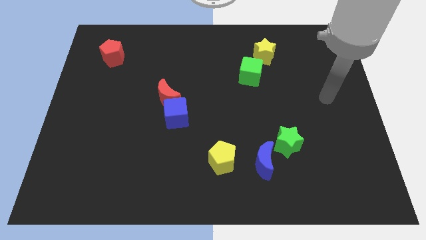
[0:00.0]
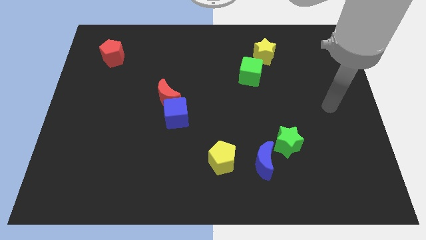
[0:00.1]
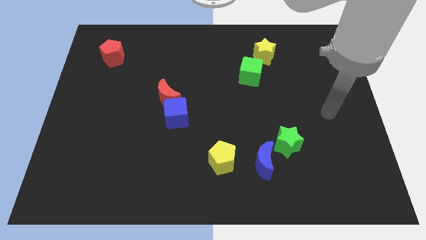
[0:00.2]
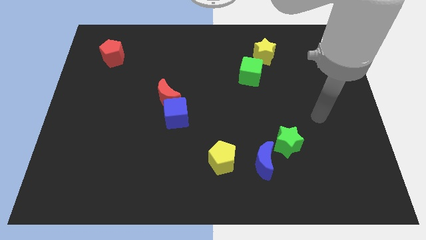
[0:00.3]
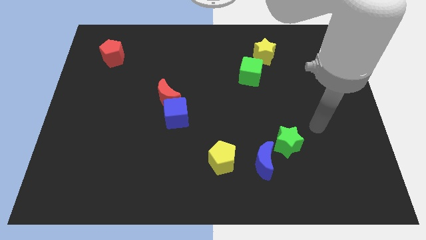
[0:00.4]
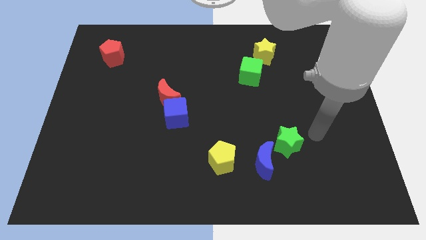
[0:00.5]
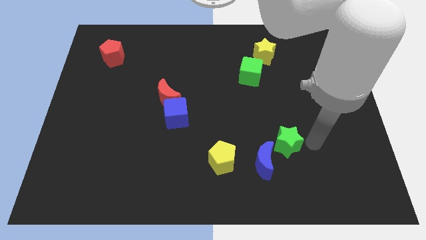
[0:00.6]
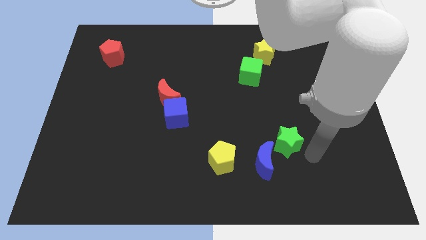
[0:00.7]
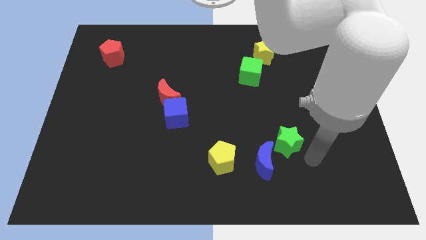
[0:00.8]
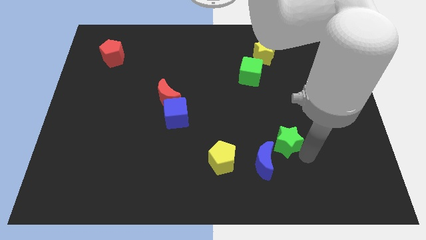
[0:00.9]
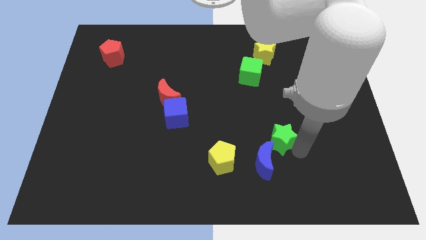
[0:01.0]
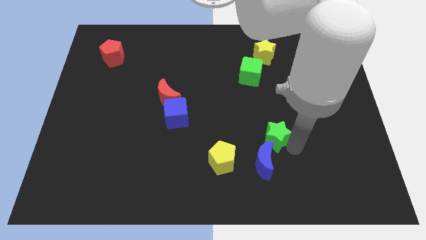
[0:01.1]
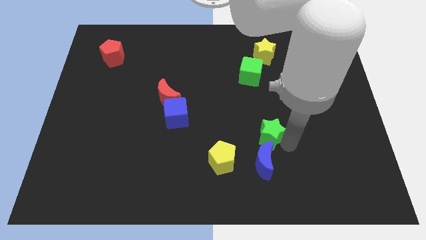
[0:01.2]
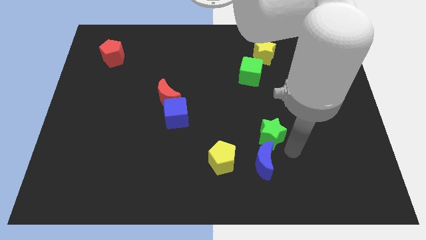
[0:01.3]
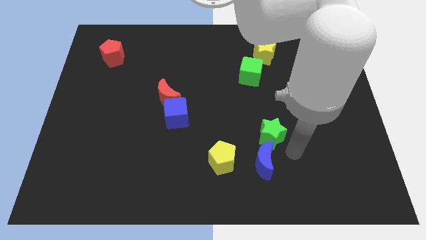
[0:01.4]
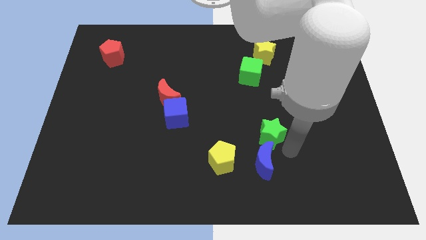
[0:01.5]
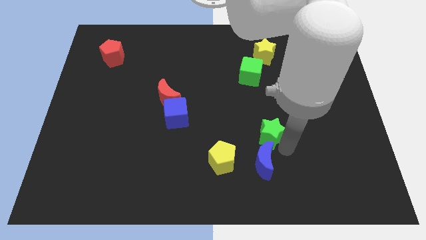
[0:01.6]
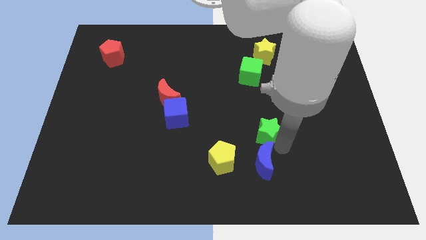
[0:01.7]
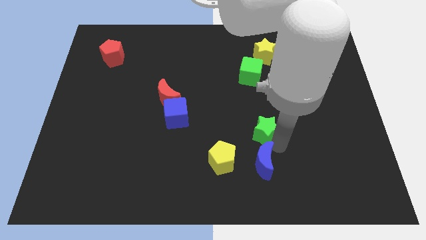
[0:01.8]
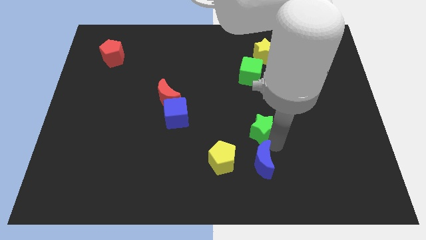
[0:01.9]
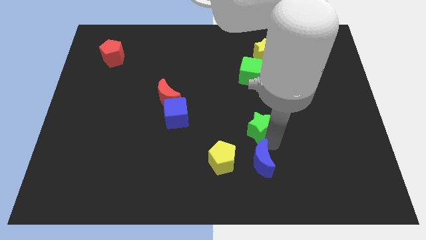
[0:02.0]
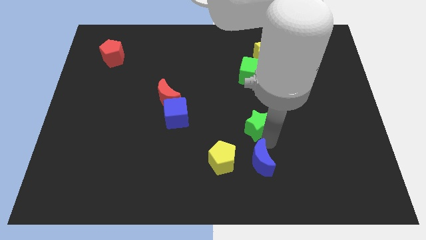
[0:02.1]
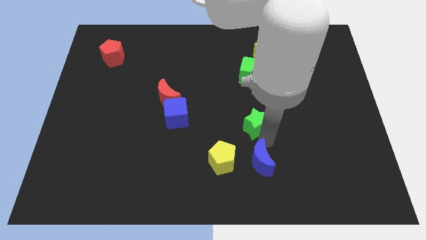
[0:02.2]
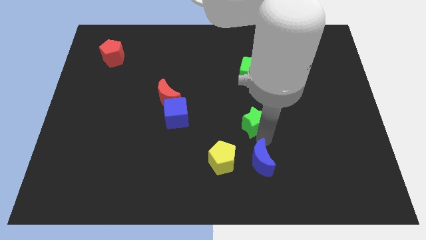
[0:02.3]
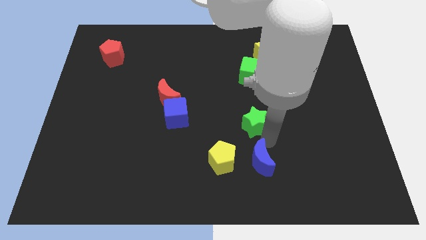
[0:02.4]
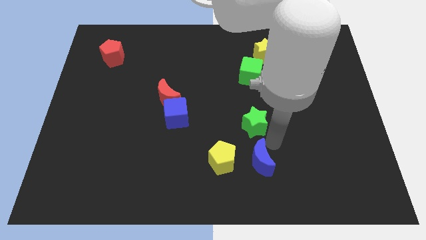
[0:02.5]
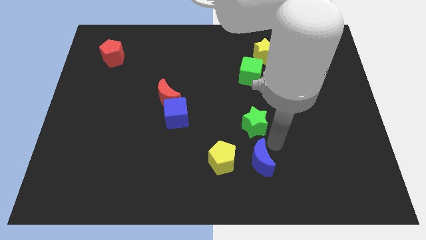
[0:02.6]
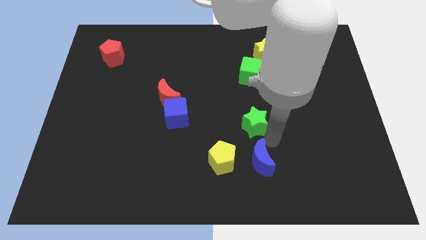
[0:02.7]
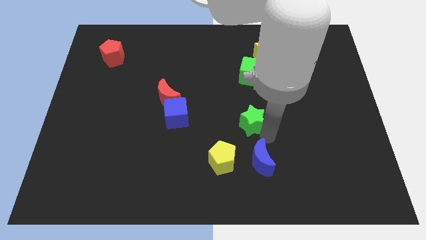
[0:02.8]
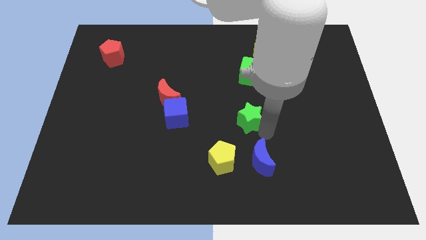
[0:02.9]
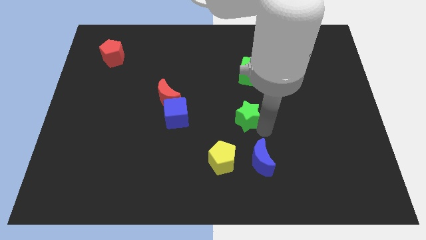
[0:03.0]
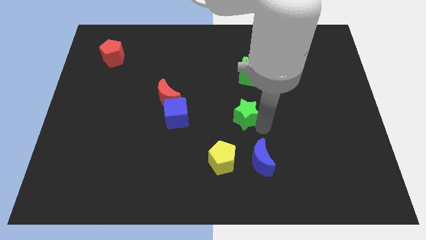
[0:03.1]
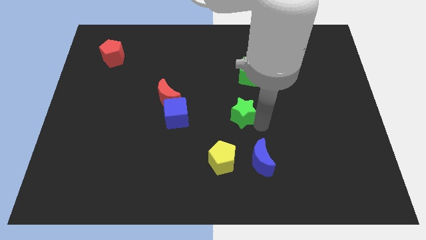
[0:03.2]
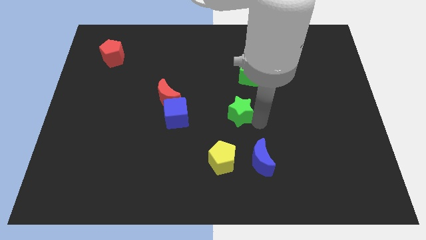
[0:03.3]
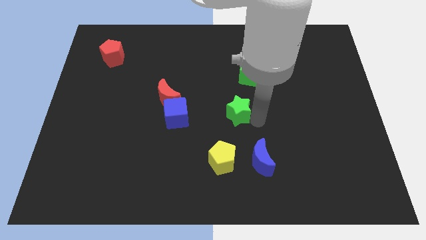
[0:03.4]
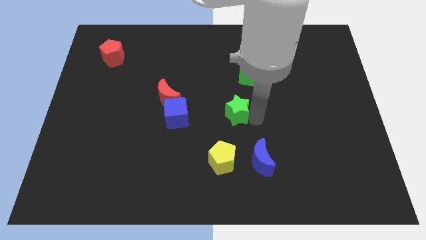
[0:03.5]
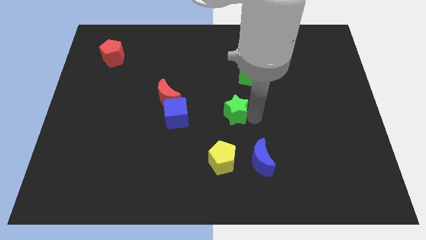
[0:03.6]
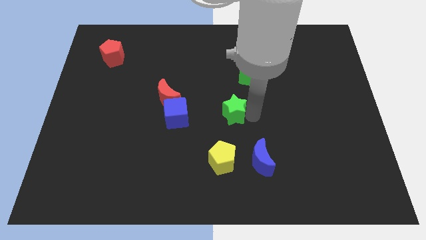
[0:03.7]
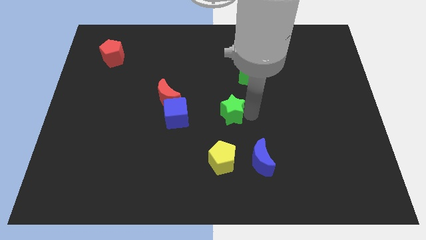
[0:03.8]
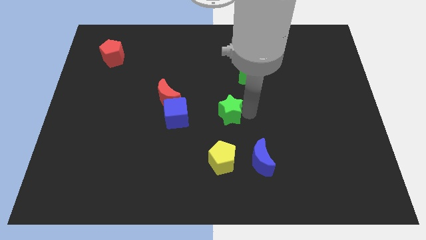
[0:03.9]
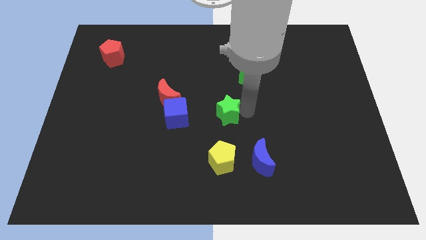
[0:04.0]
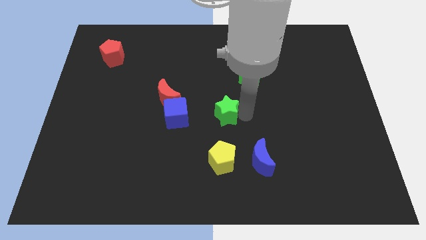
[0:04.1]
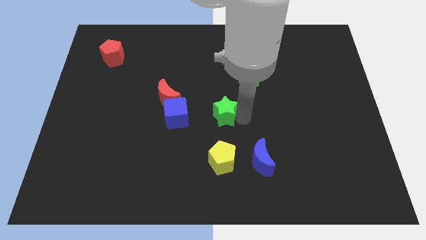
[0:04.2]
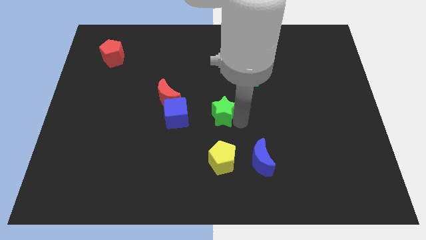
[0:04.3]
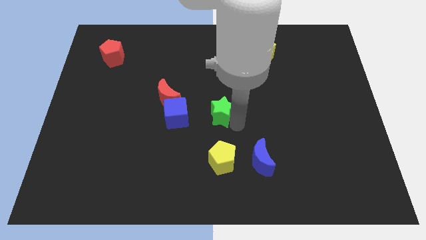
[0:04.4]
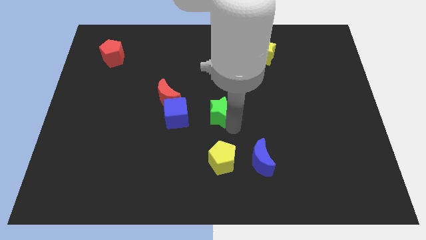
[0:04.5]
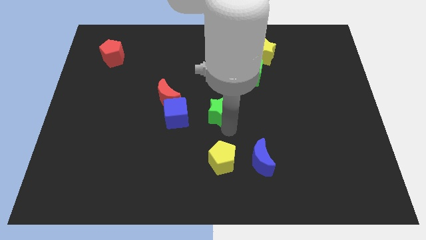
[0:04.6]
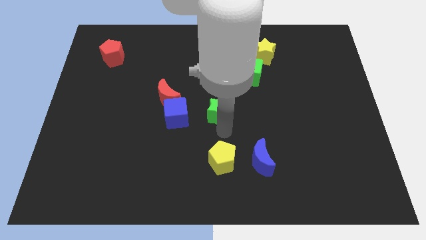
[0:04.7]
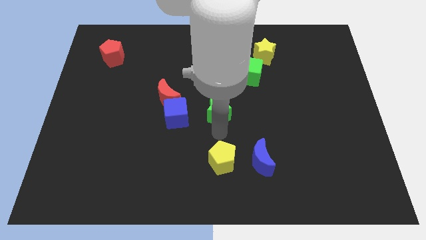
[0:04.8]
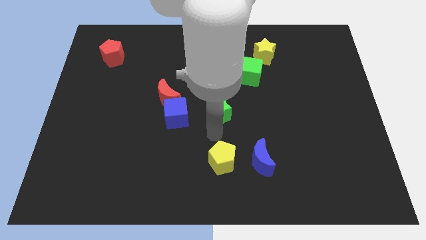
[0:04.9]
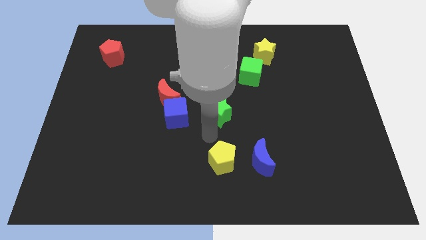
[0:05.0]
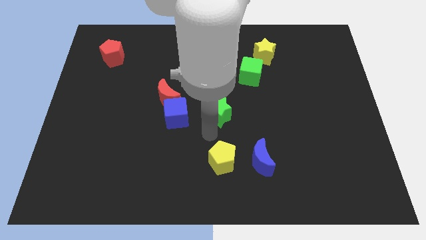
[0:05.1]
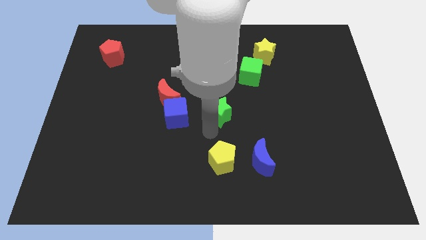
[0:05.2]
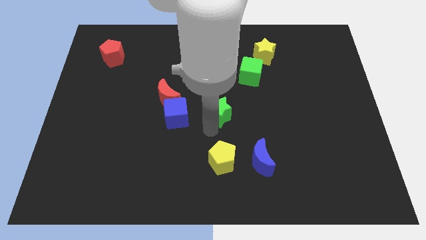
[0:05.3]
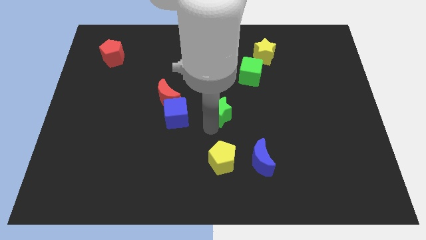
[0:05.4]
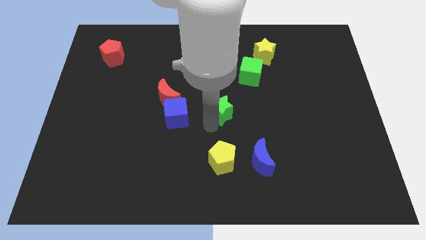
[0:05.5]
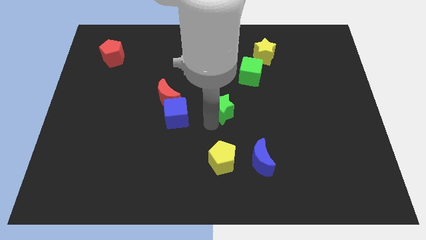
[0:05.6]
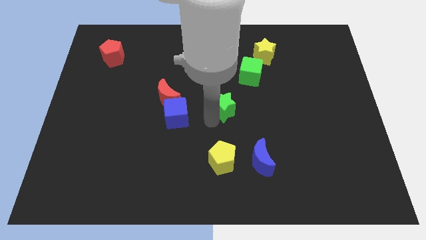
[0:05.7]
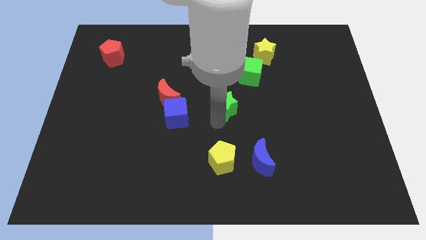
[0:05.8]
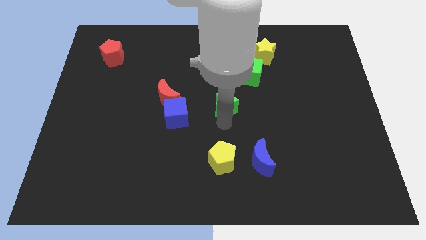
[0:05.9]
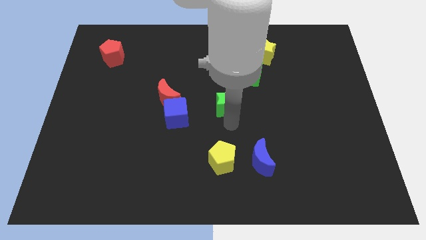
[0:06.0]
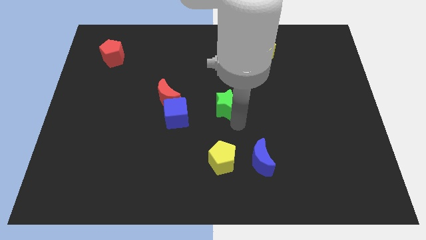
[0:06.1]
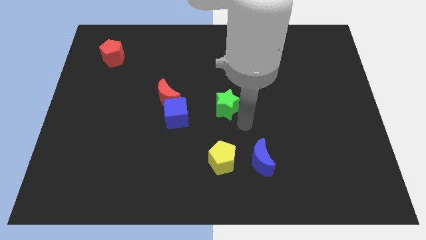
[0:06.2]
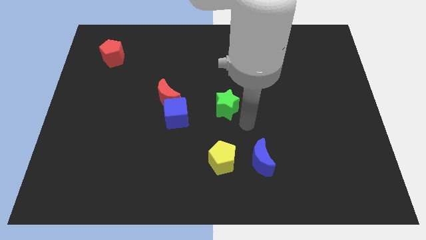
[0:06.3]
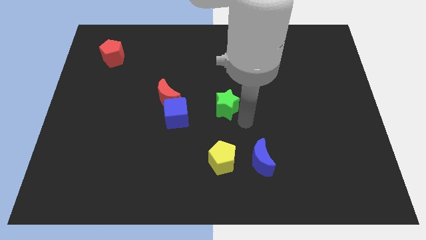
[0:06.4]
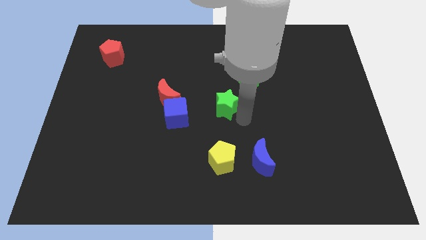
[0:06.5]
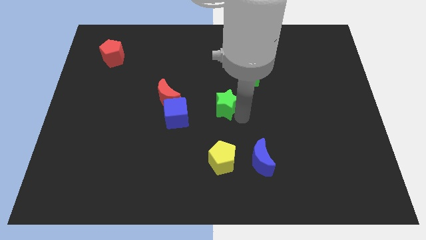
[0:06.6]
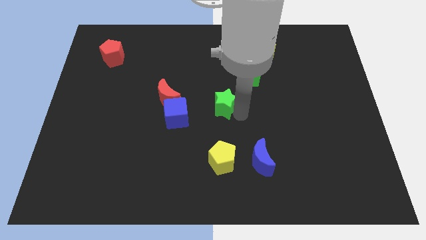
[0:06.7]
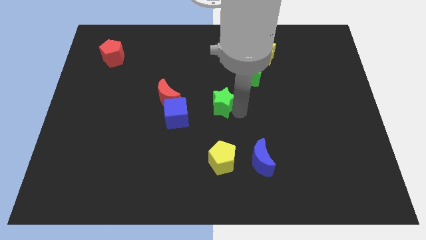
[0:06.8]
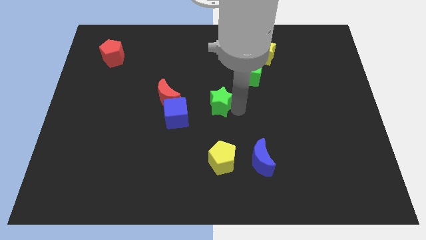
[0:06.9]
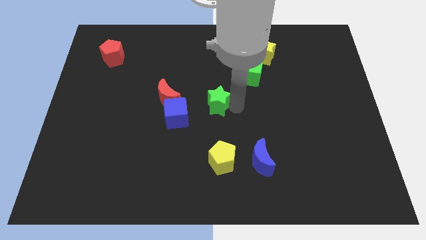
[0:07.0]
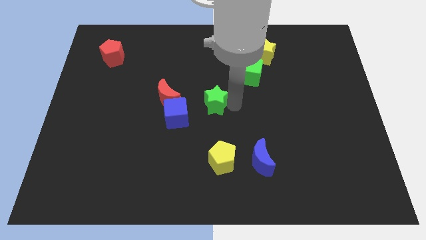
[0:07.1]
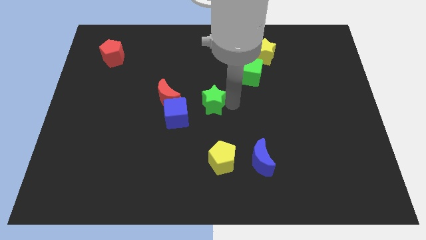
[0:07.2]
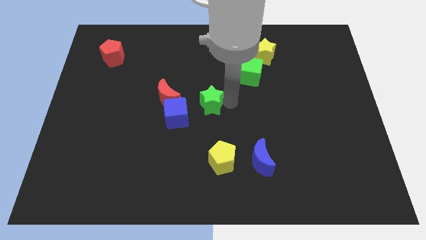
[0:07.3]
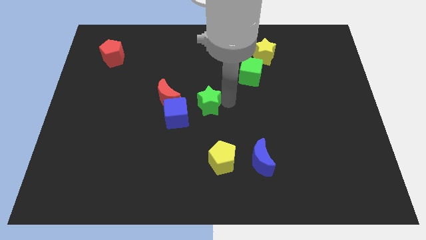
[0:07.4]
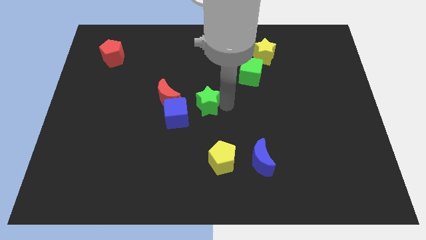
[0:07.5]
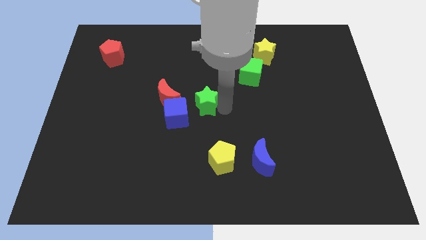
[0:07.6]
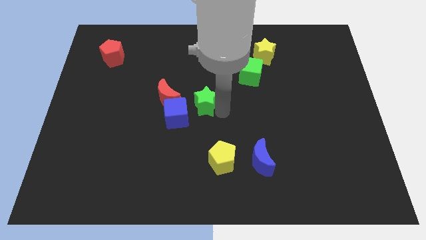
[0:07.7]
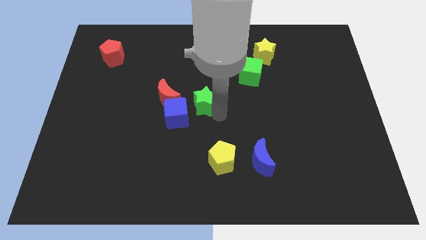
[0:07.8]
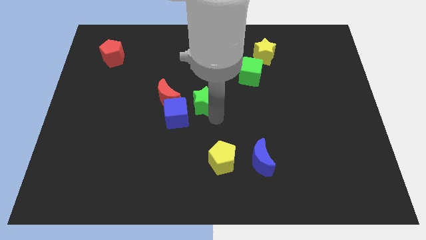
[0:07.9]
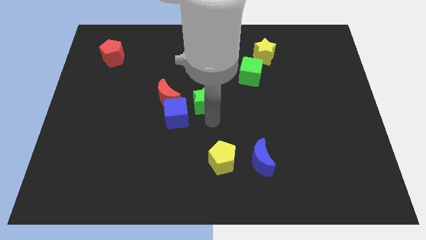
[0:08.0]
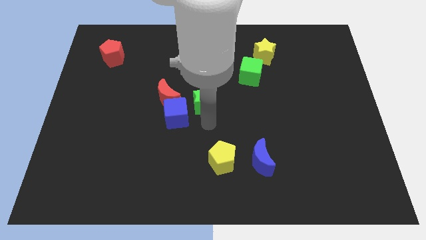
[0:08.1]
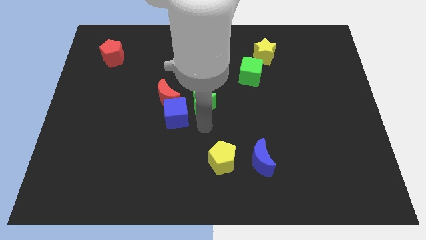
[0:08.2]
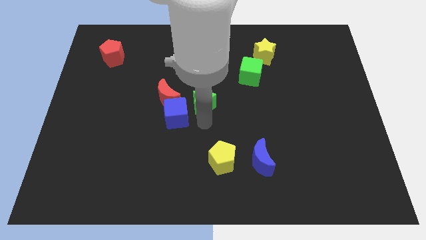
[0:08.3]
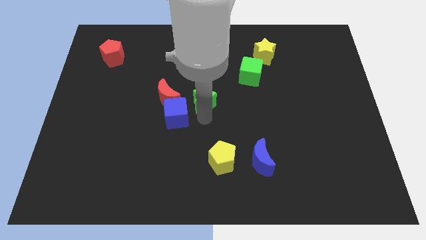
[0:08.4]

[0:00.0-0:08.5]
slide the green star diagonally up and left
